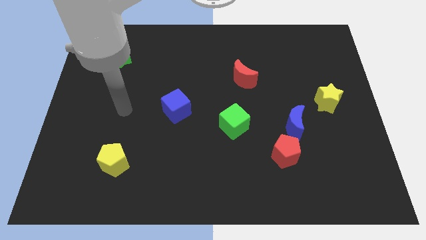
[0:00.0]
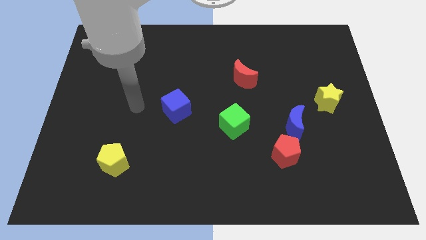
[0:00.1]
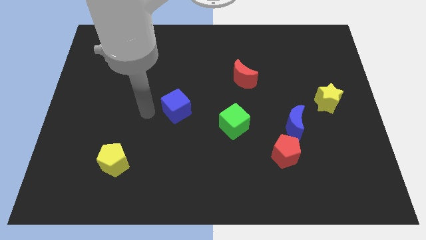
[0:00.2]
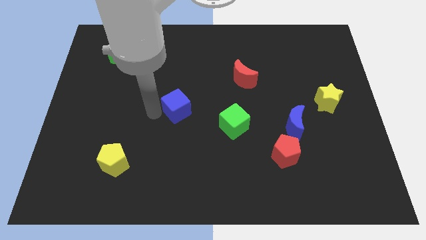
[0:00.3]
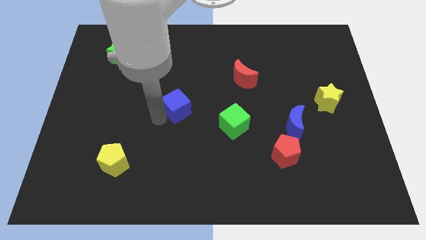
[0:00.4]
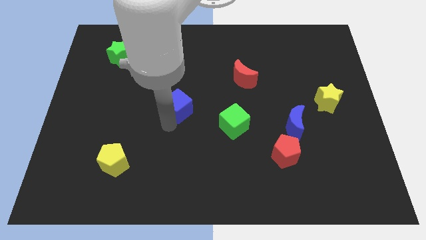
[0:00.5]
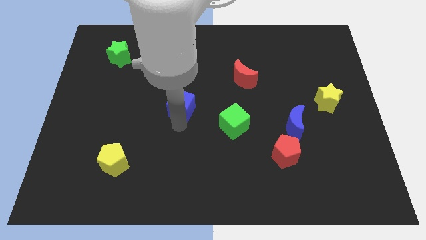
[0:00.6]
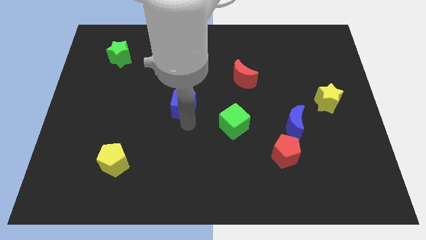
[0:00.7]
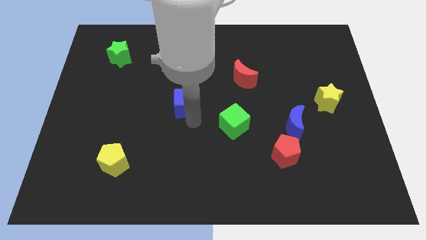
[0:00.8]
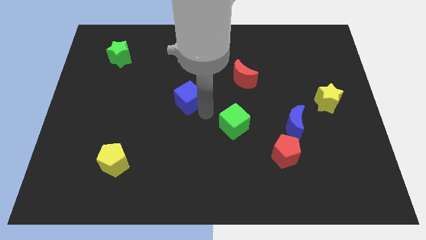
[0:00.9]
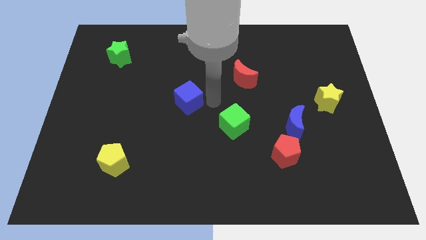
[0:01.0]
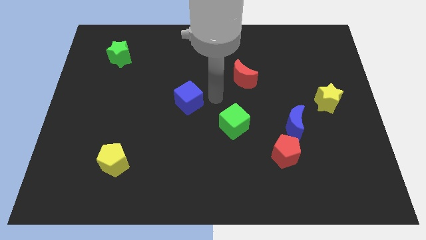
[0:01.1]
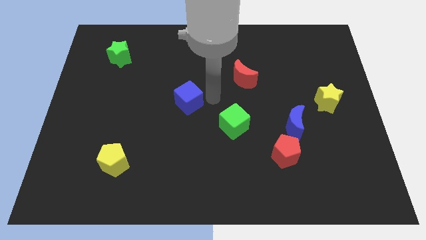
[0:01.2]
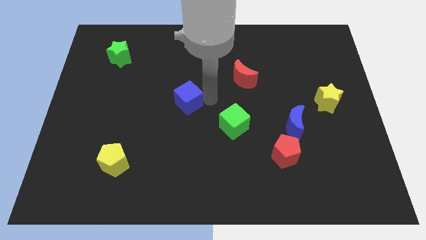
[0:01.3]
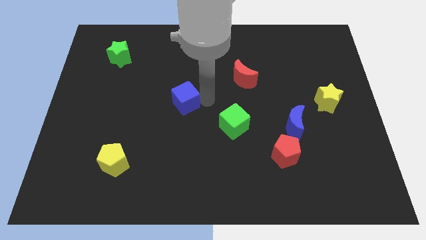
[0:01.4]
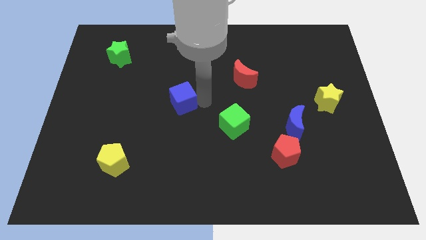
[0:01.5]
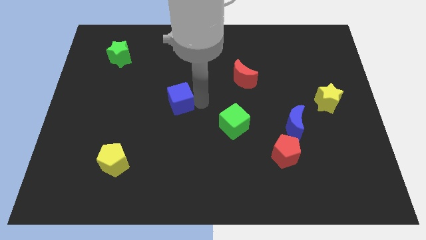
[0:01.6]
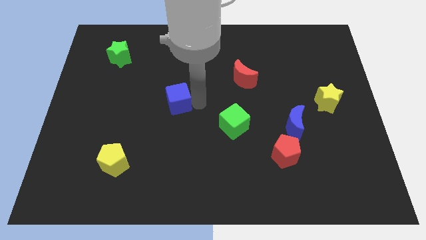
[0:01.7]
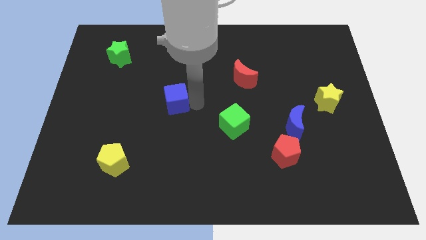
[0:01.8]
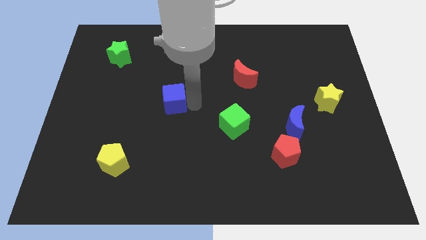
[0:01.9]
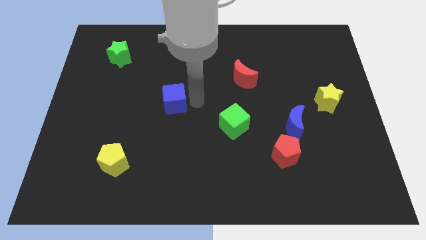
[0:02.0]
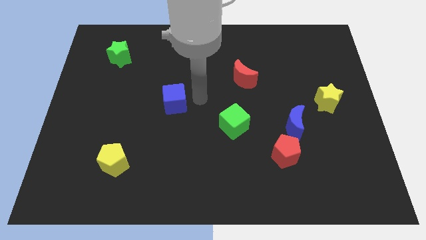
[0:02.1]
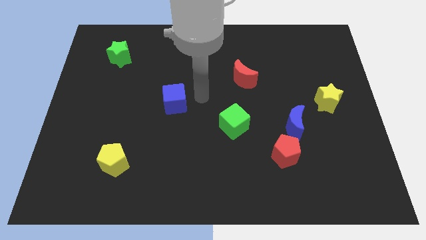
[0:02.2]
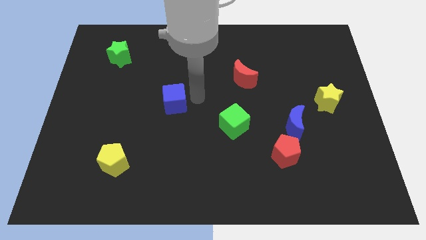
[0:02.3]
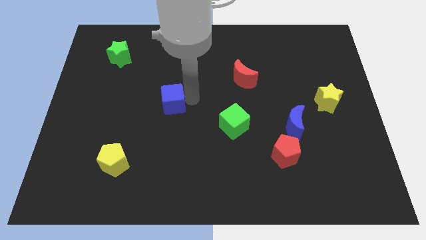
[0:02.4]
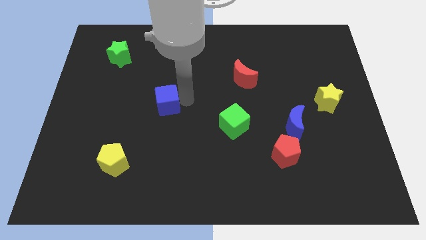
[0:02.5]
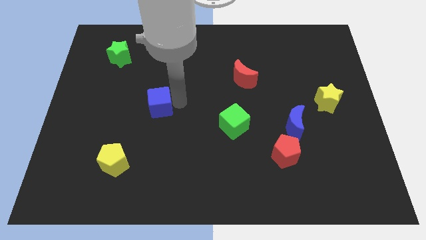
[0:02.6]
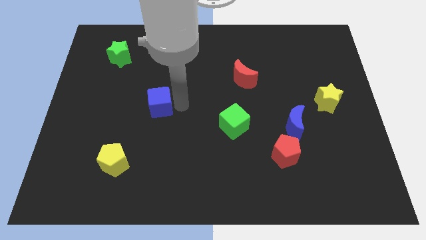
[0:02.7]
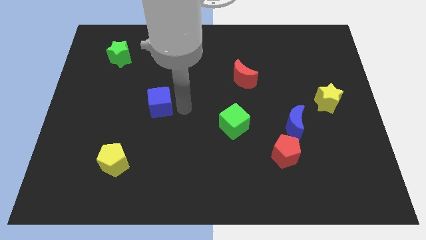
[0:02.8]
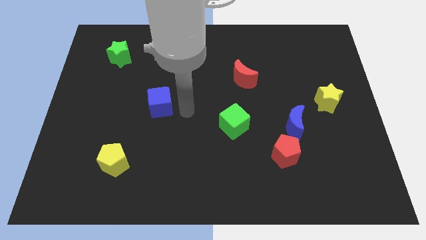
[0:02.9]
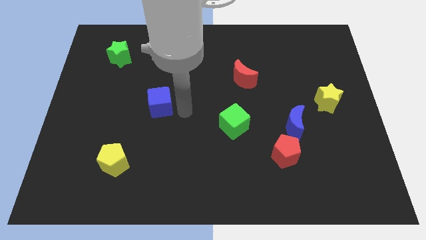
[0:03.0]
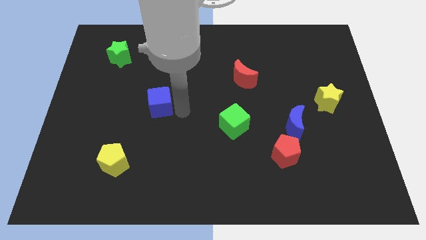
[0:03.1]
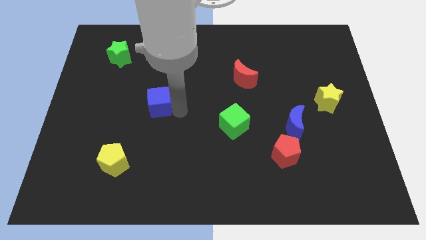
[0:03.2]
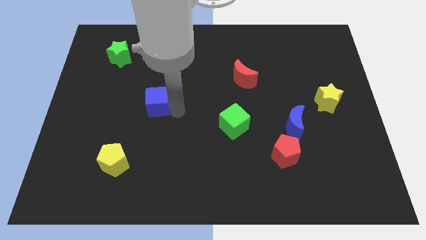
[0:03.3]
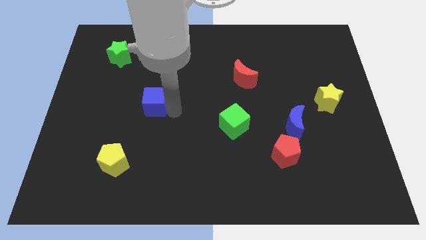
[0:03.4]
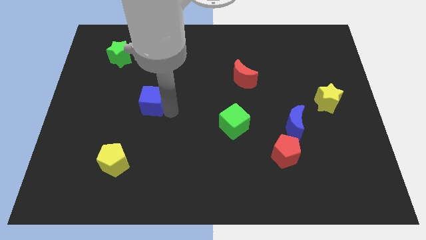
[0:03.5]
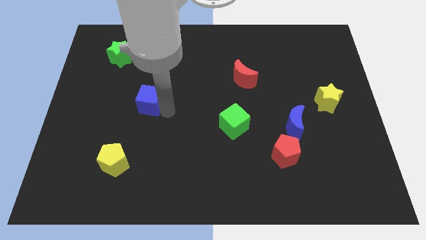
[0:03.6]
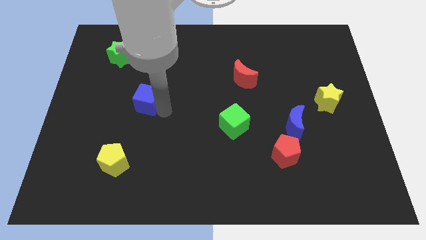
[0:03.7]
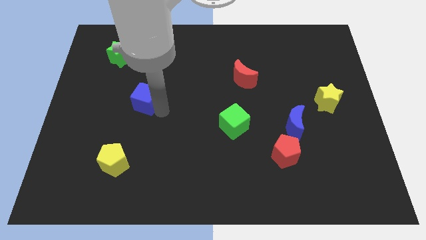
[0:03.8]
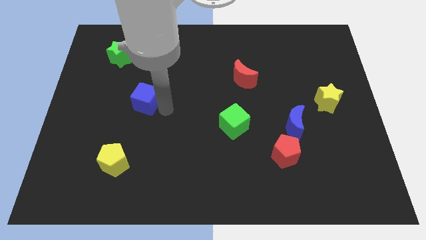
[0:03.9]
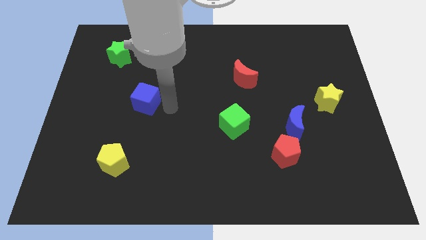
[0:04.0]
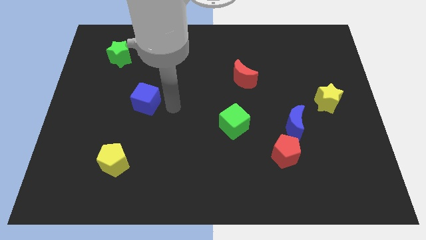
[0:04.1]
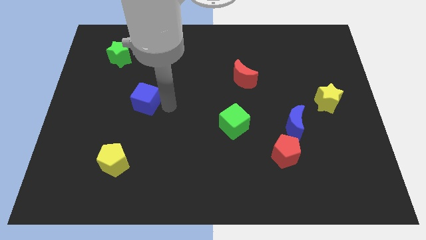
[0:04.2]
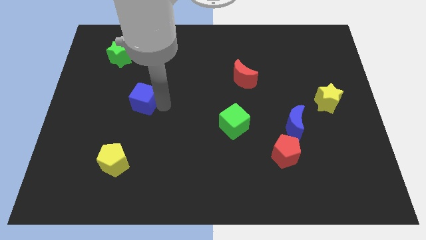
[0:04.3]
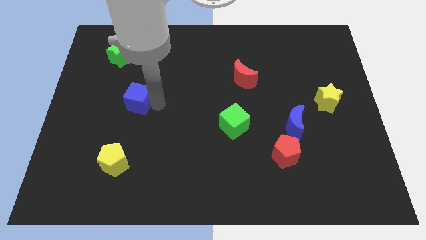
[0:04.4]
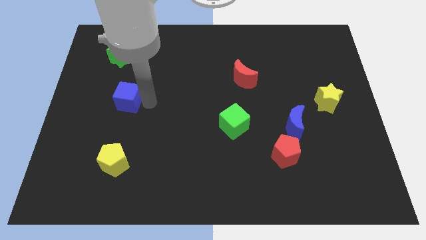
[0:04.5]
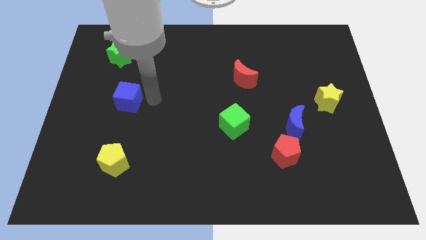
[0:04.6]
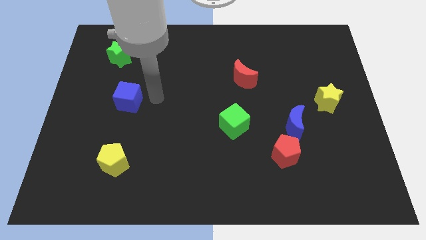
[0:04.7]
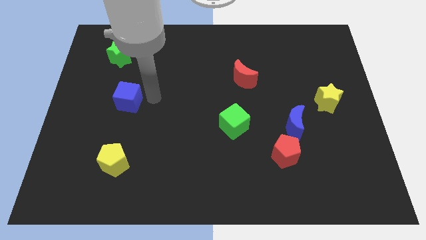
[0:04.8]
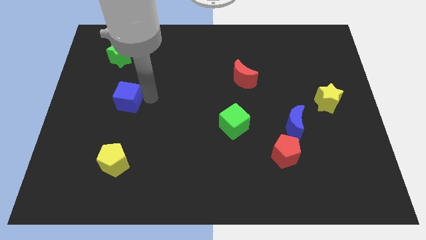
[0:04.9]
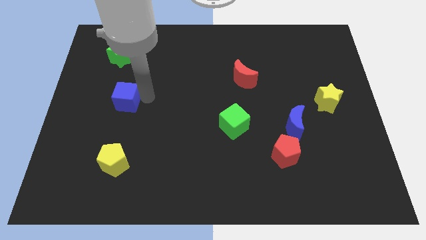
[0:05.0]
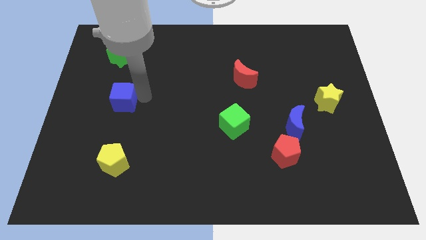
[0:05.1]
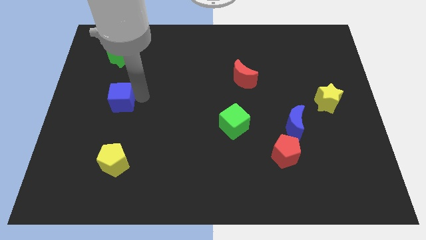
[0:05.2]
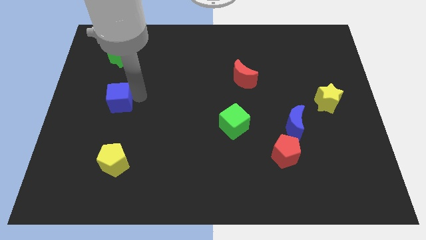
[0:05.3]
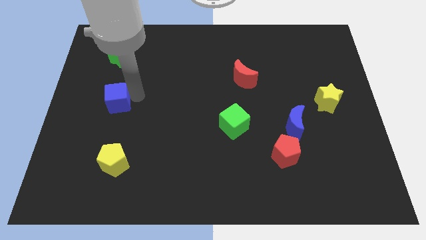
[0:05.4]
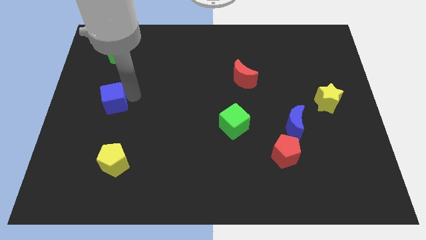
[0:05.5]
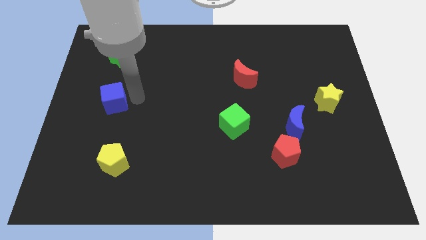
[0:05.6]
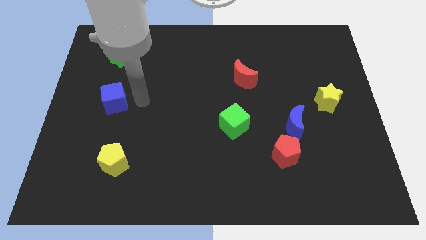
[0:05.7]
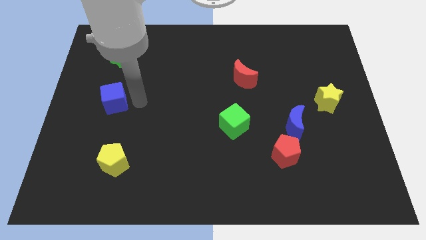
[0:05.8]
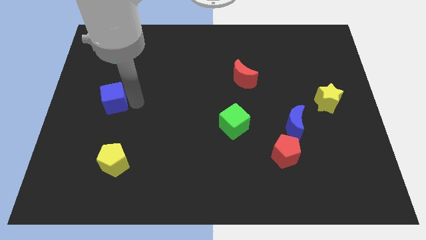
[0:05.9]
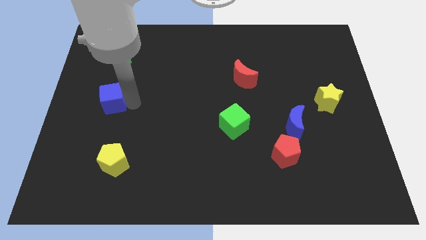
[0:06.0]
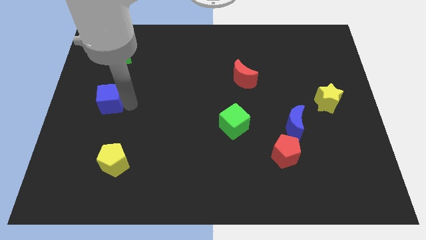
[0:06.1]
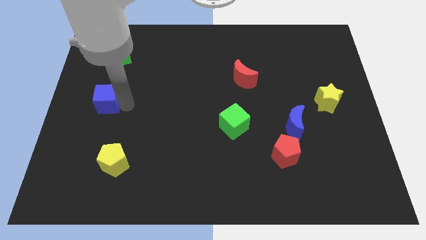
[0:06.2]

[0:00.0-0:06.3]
put the blue cube to the left side

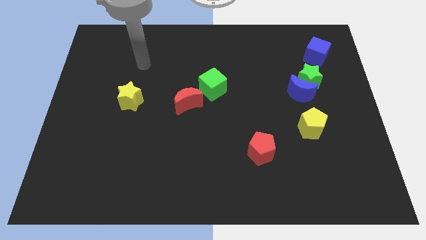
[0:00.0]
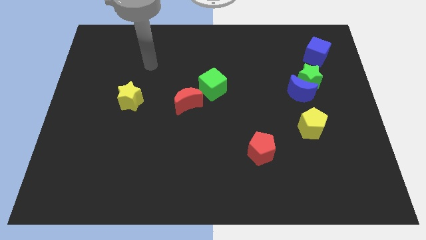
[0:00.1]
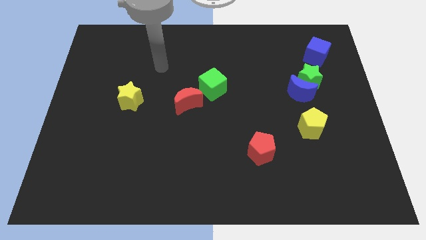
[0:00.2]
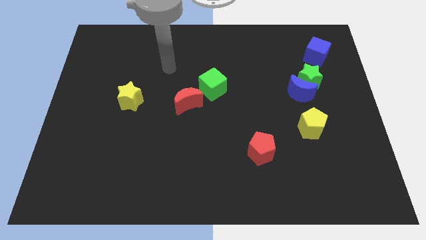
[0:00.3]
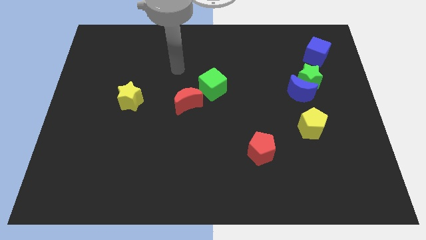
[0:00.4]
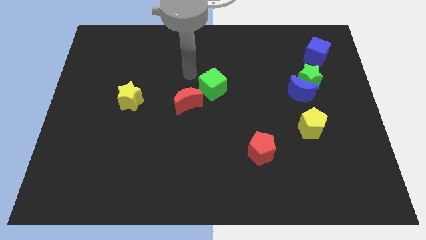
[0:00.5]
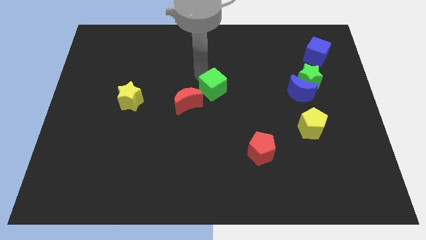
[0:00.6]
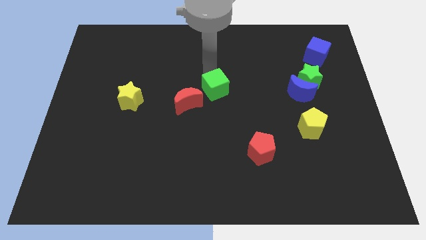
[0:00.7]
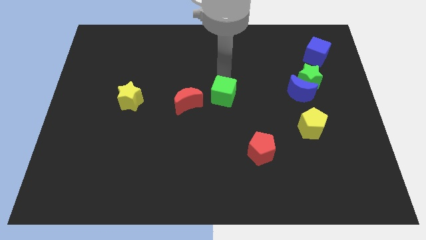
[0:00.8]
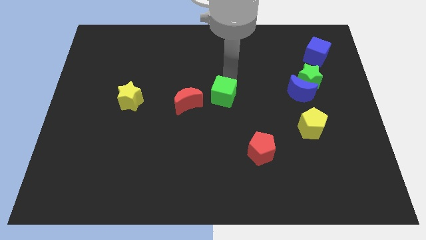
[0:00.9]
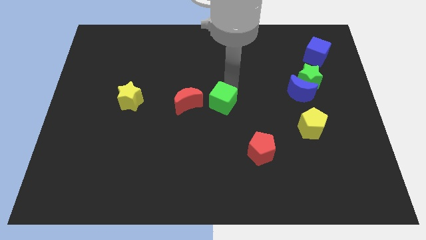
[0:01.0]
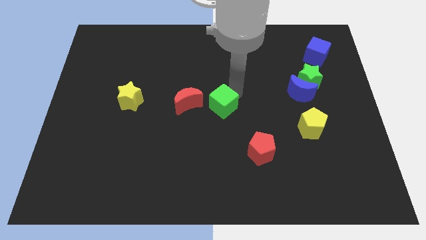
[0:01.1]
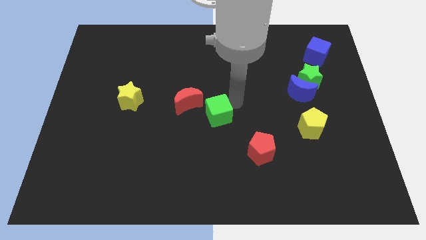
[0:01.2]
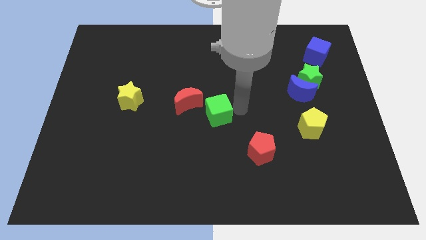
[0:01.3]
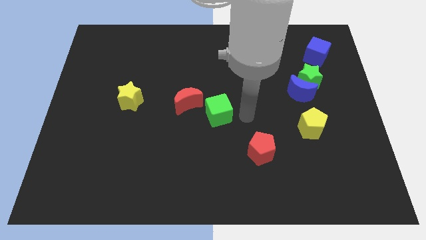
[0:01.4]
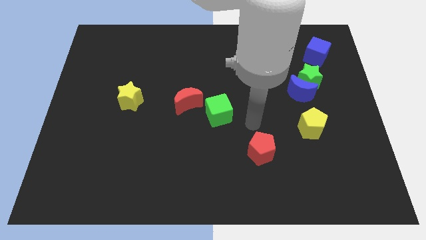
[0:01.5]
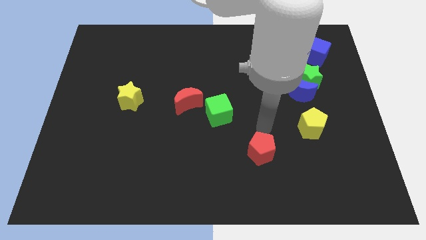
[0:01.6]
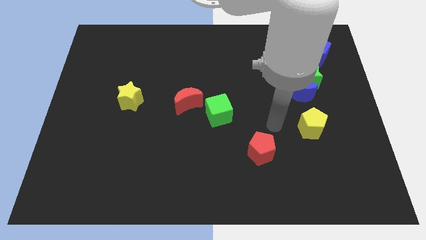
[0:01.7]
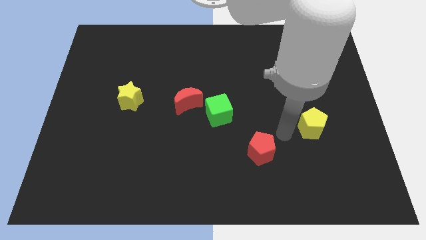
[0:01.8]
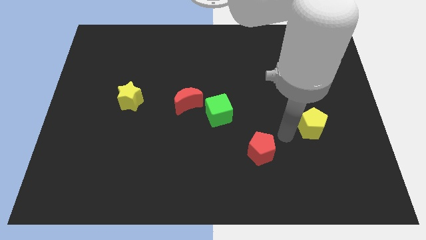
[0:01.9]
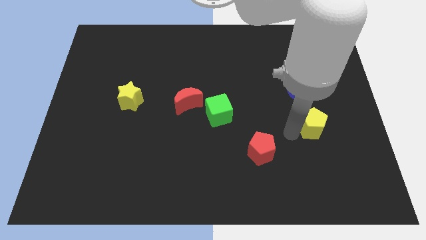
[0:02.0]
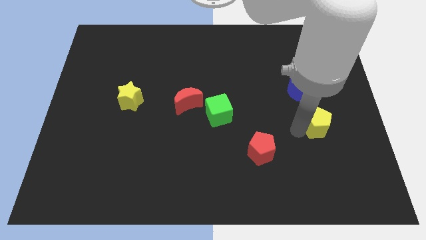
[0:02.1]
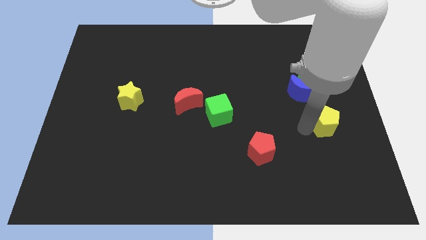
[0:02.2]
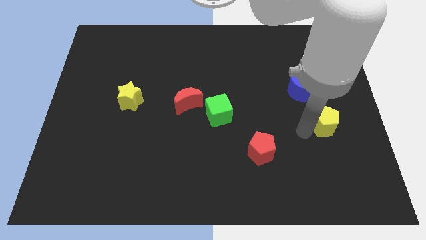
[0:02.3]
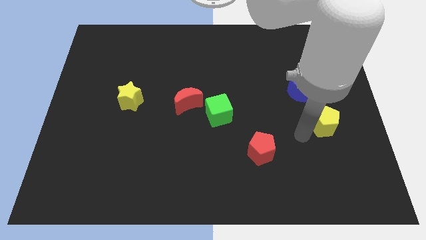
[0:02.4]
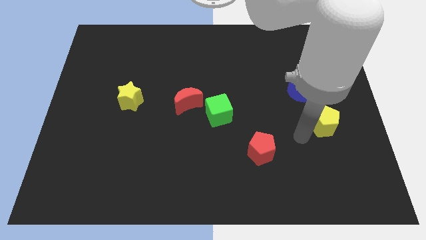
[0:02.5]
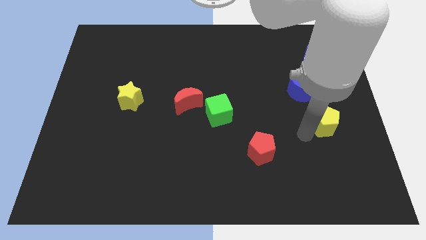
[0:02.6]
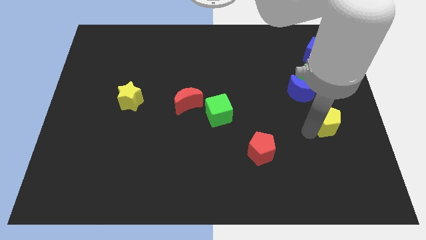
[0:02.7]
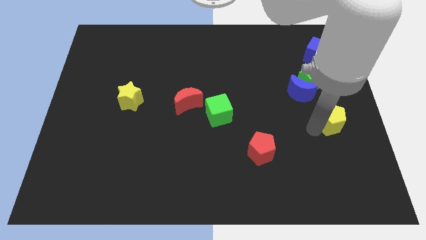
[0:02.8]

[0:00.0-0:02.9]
put the yellow pentagon to the right side of the board
